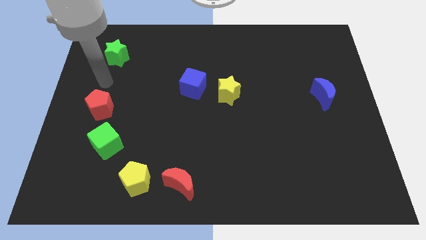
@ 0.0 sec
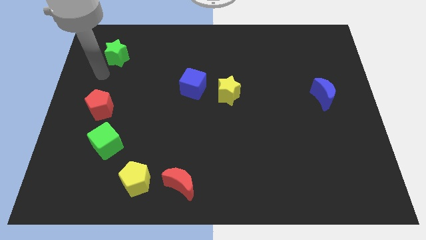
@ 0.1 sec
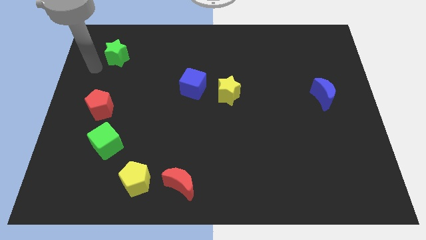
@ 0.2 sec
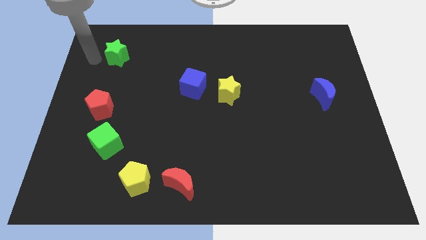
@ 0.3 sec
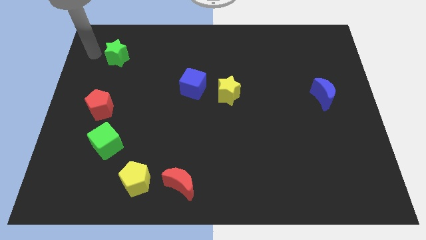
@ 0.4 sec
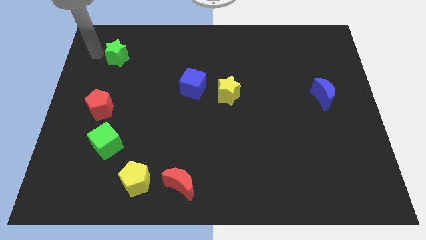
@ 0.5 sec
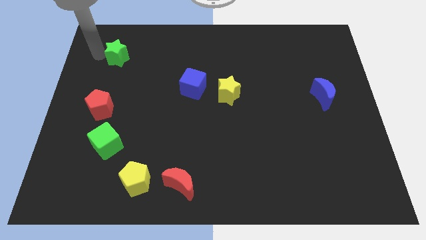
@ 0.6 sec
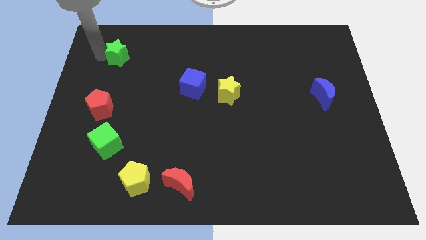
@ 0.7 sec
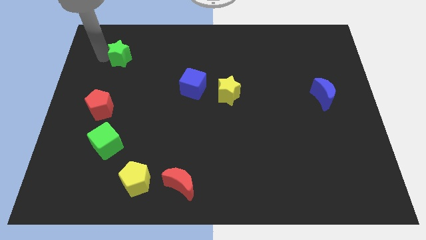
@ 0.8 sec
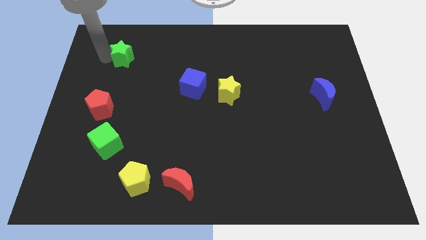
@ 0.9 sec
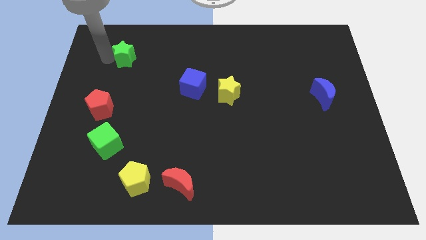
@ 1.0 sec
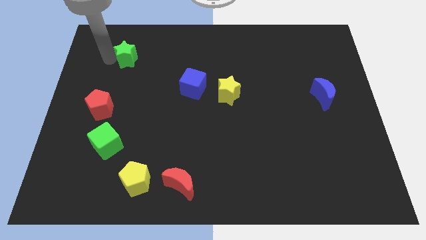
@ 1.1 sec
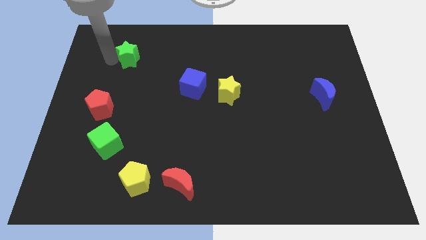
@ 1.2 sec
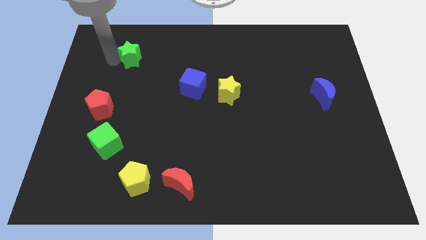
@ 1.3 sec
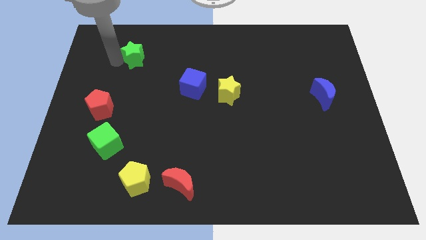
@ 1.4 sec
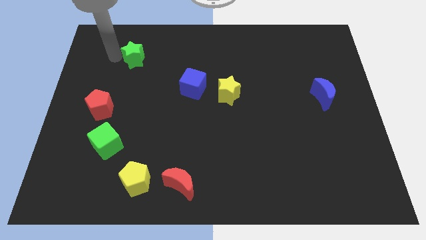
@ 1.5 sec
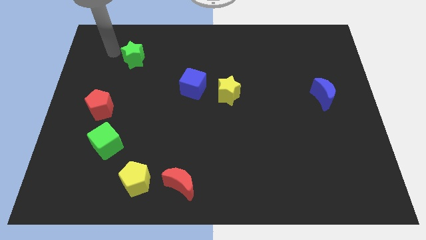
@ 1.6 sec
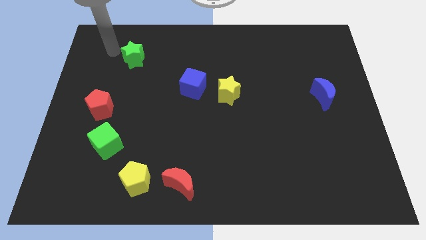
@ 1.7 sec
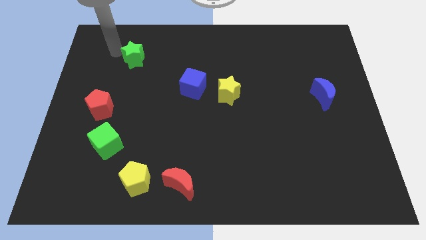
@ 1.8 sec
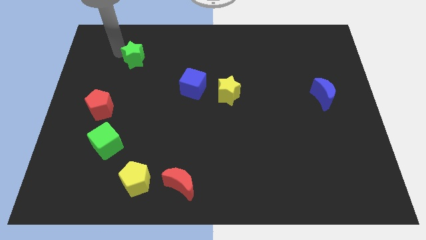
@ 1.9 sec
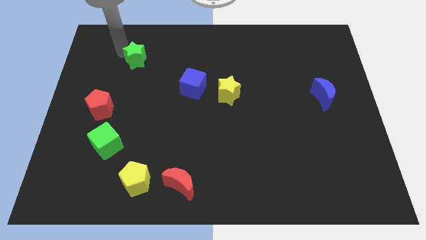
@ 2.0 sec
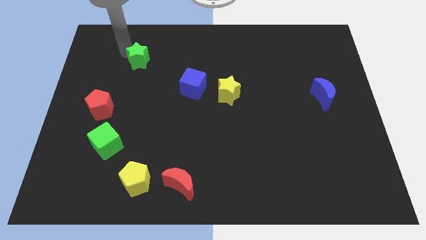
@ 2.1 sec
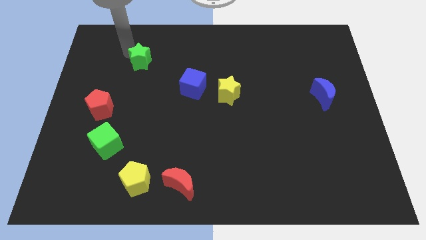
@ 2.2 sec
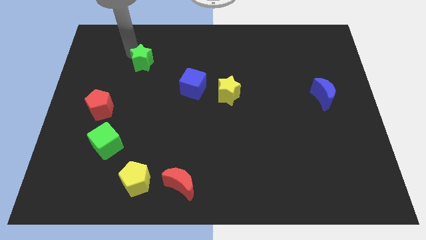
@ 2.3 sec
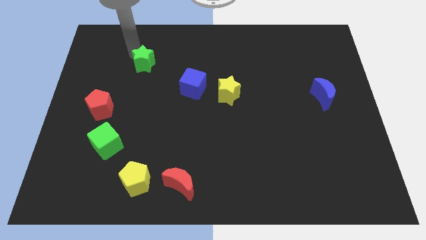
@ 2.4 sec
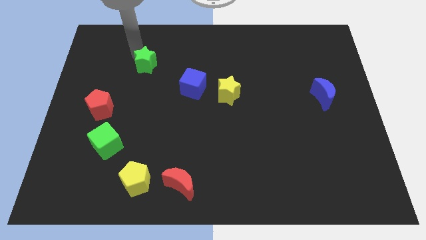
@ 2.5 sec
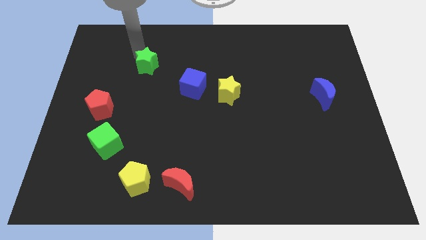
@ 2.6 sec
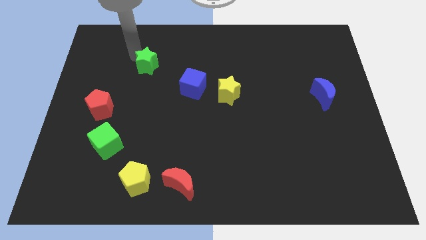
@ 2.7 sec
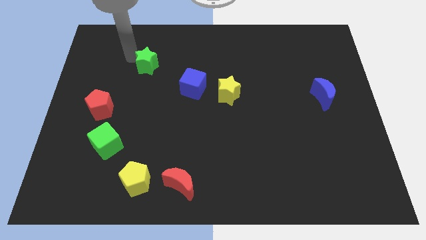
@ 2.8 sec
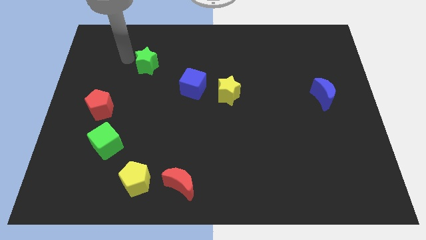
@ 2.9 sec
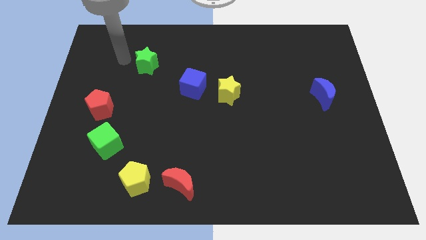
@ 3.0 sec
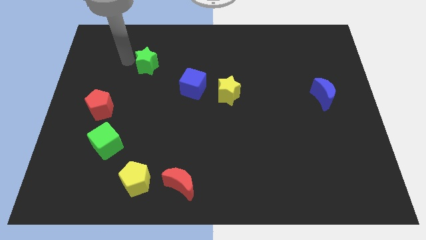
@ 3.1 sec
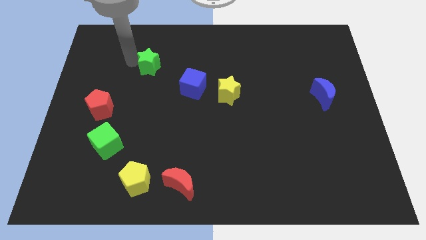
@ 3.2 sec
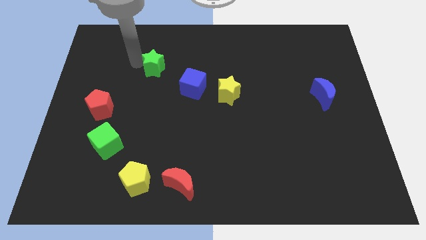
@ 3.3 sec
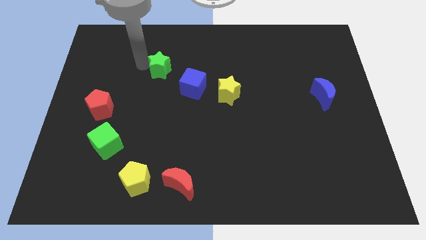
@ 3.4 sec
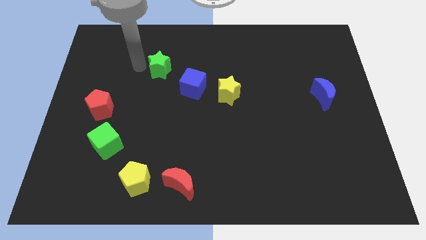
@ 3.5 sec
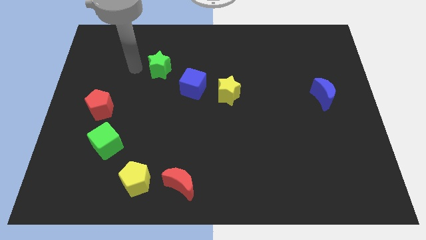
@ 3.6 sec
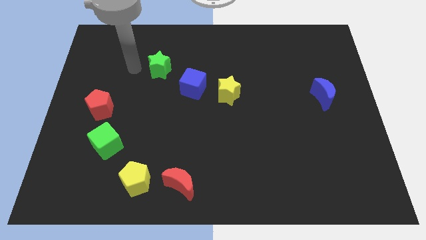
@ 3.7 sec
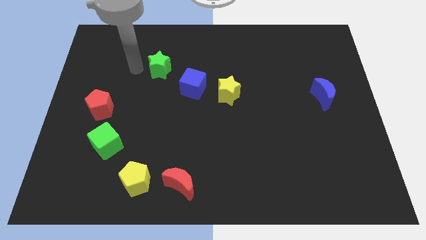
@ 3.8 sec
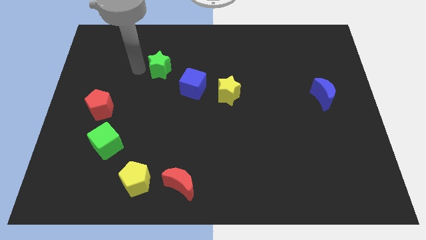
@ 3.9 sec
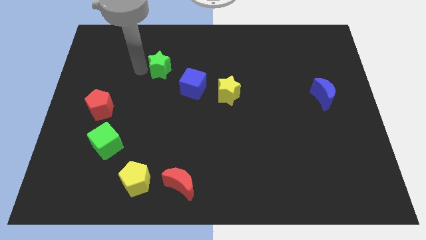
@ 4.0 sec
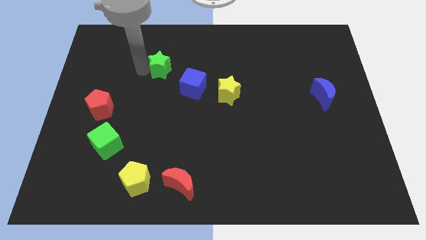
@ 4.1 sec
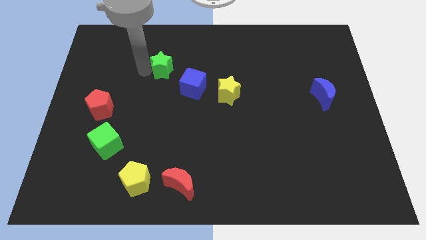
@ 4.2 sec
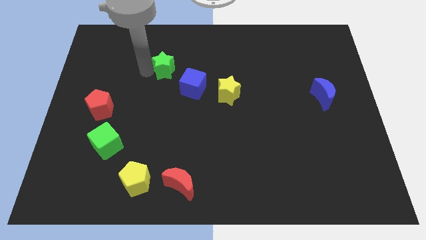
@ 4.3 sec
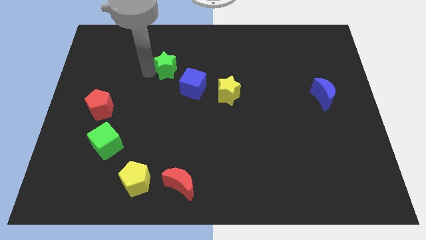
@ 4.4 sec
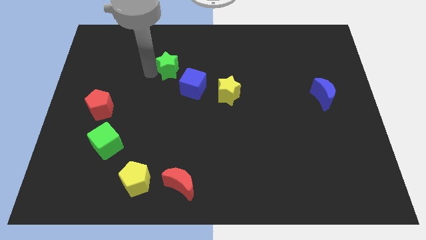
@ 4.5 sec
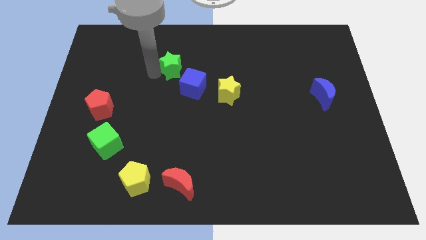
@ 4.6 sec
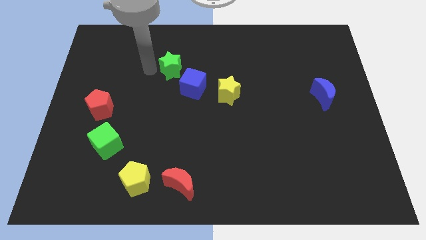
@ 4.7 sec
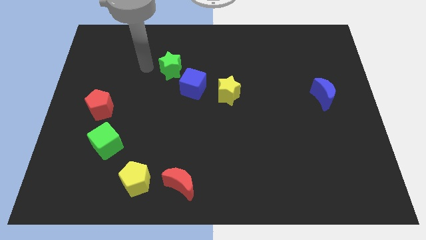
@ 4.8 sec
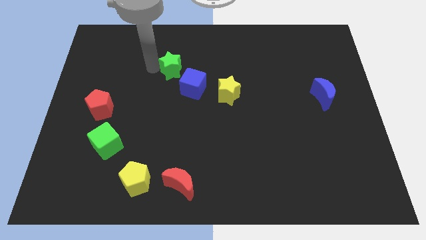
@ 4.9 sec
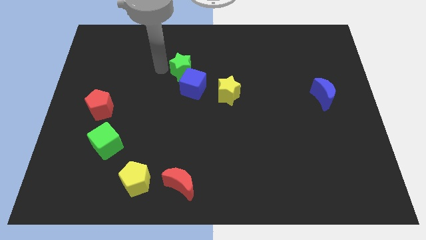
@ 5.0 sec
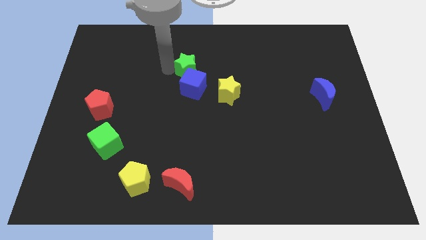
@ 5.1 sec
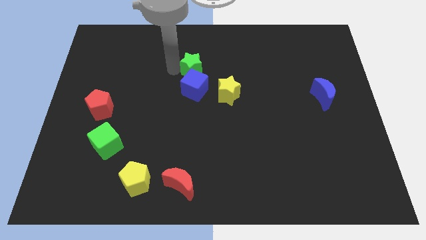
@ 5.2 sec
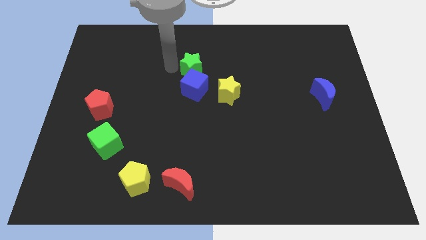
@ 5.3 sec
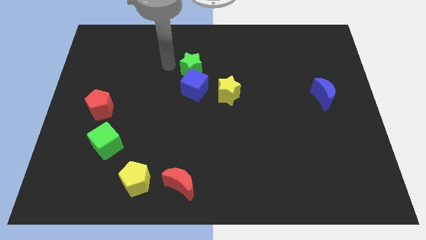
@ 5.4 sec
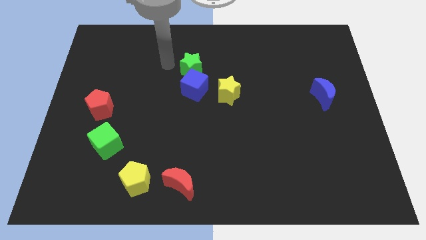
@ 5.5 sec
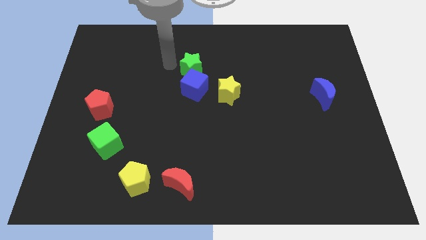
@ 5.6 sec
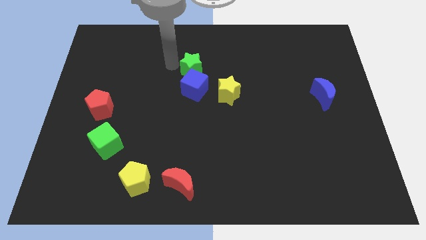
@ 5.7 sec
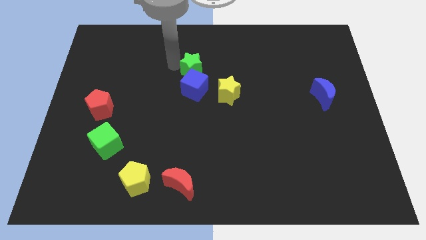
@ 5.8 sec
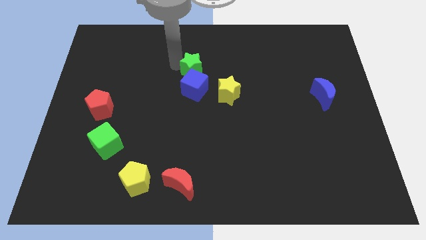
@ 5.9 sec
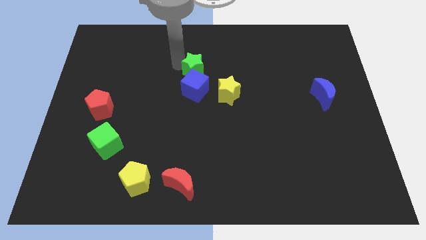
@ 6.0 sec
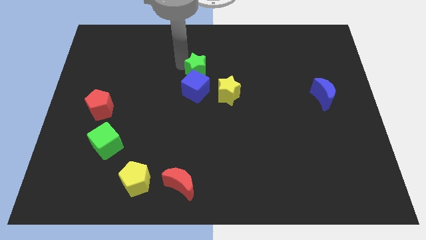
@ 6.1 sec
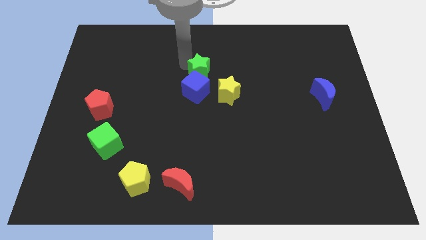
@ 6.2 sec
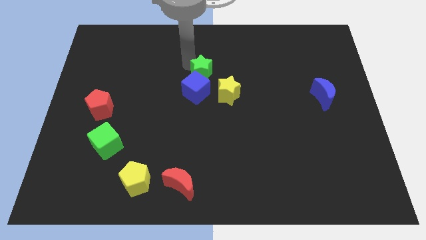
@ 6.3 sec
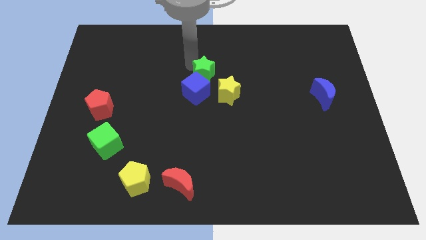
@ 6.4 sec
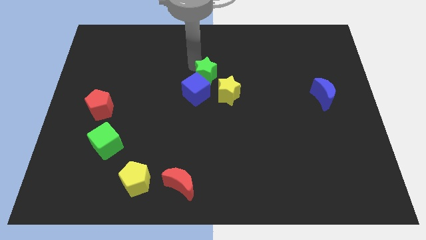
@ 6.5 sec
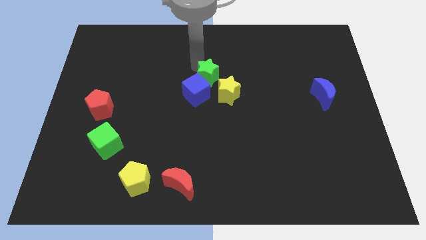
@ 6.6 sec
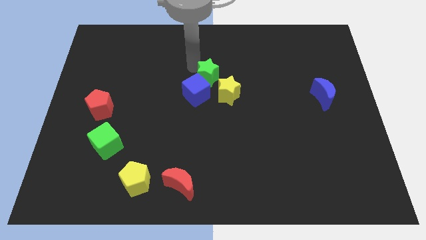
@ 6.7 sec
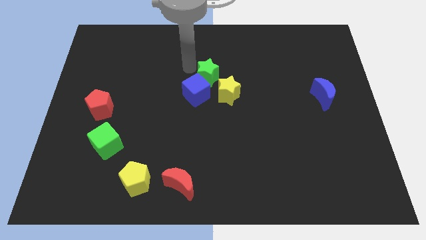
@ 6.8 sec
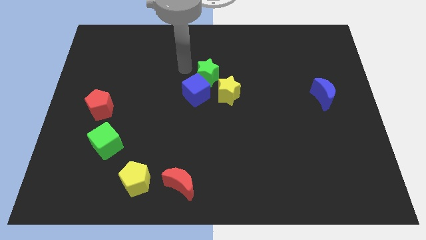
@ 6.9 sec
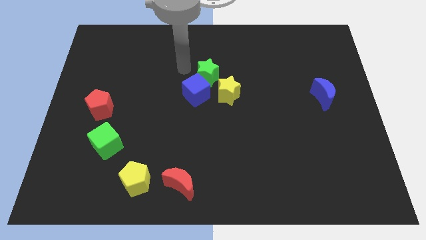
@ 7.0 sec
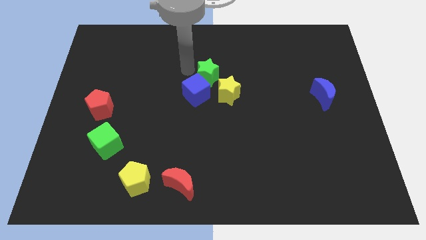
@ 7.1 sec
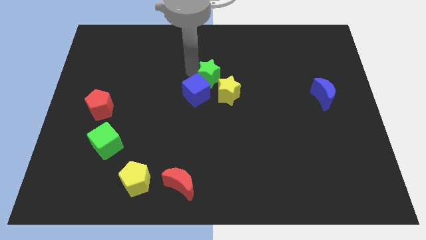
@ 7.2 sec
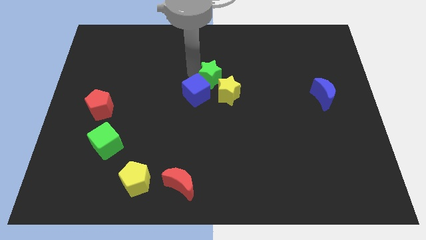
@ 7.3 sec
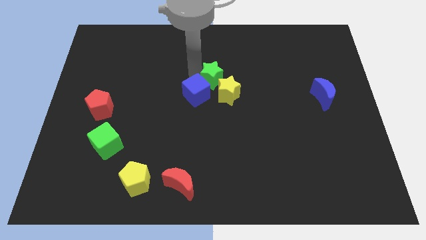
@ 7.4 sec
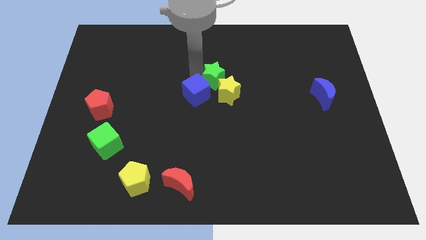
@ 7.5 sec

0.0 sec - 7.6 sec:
push the green star to the yellow star
